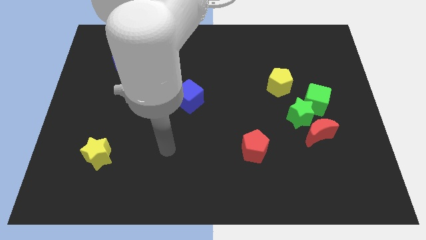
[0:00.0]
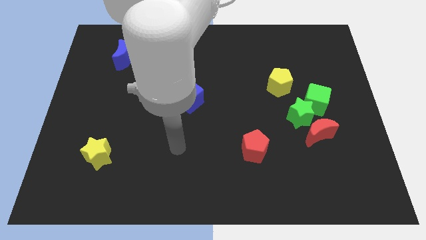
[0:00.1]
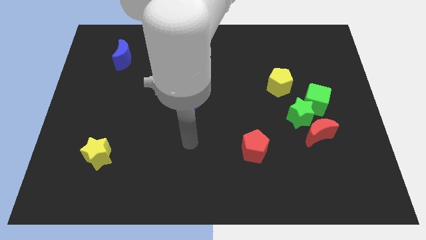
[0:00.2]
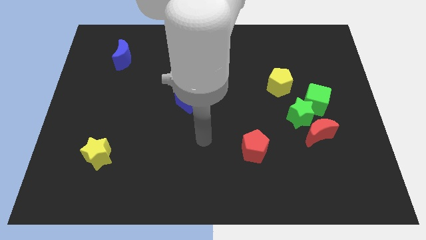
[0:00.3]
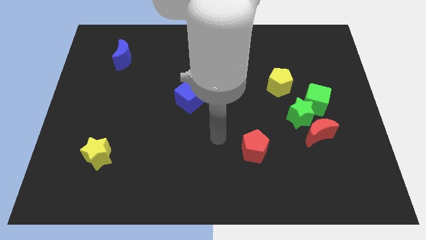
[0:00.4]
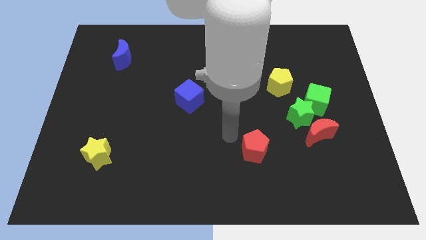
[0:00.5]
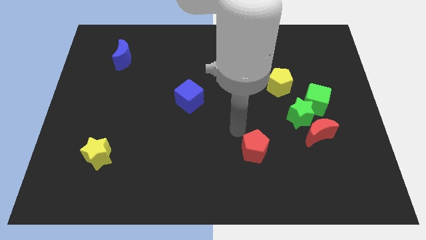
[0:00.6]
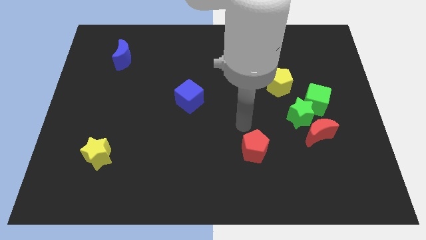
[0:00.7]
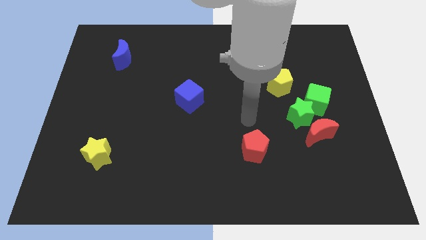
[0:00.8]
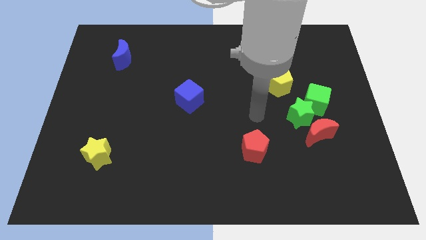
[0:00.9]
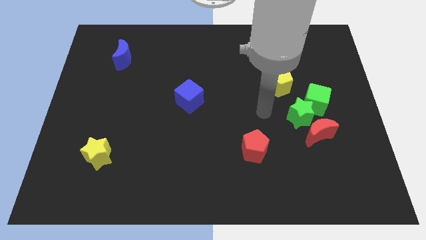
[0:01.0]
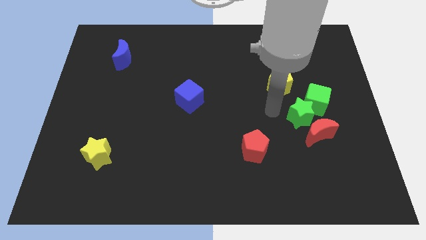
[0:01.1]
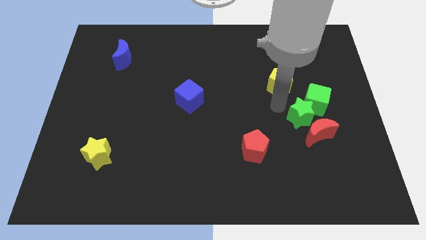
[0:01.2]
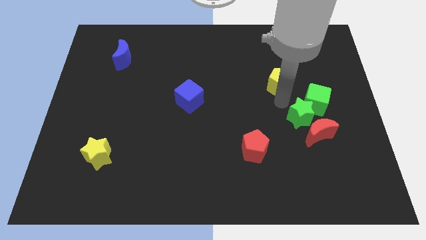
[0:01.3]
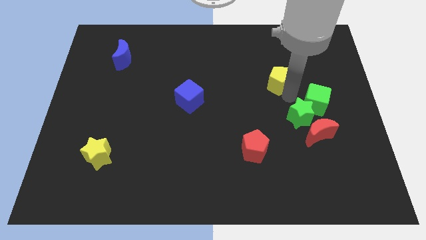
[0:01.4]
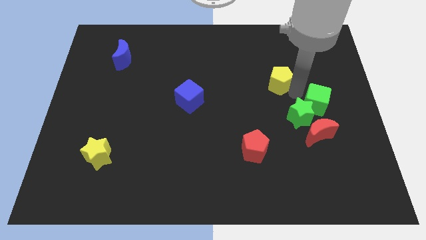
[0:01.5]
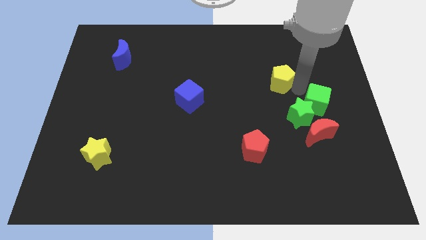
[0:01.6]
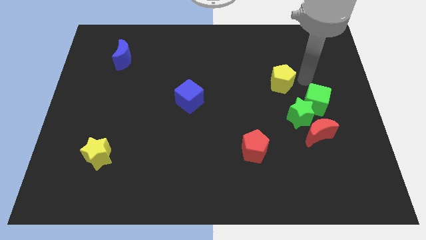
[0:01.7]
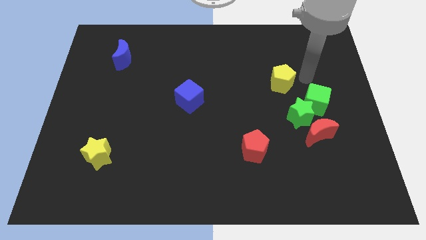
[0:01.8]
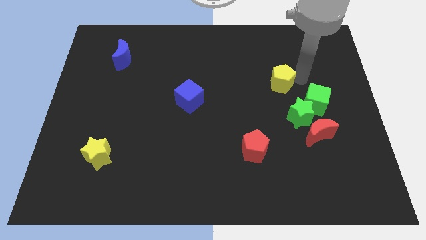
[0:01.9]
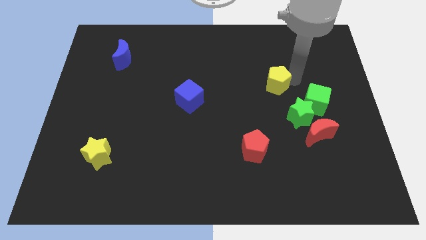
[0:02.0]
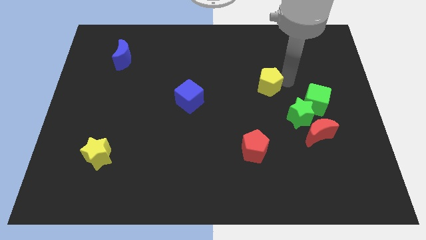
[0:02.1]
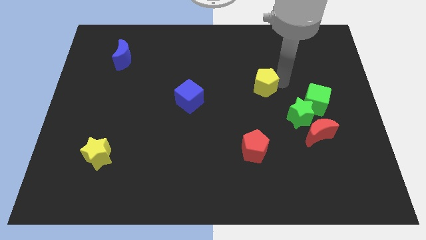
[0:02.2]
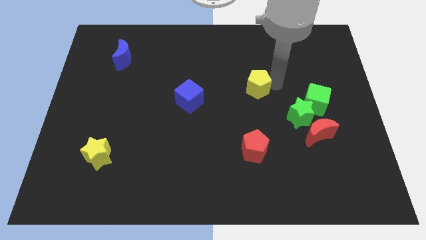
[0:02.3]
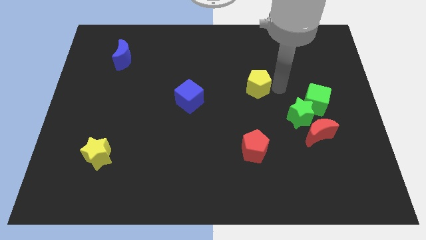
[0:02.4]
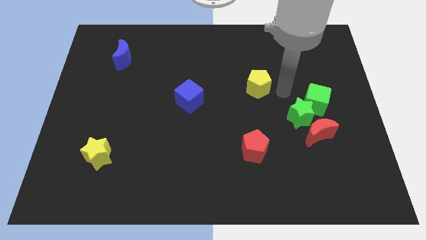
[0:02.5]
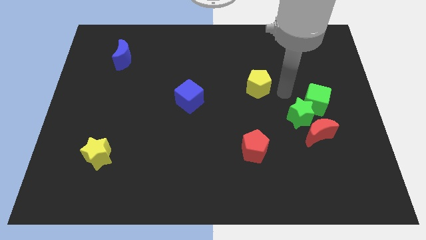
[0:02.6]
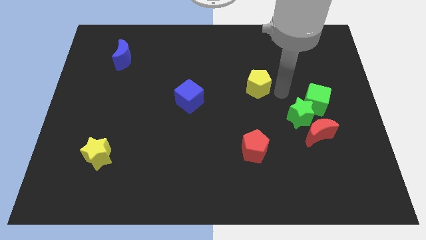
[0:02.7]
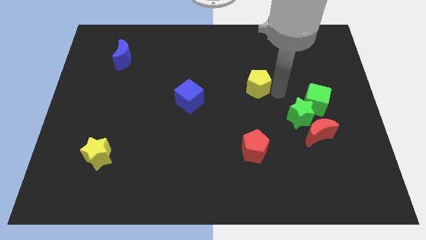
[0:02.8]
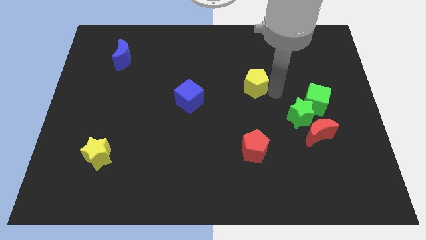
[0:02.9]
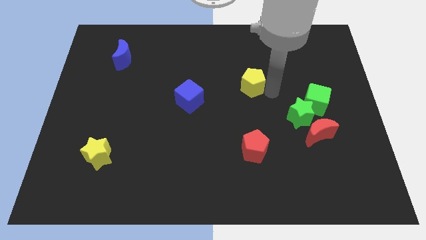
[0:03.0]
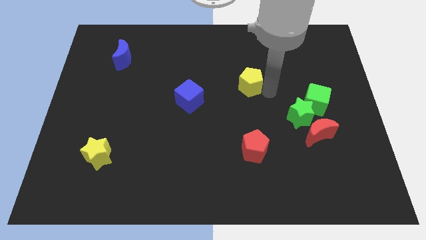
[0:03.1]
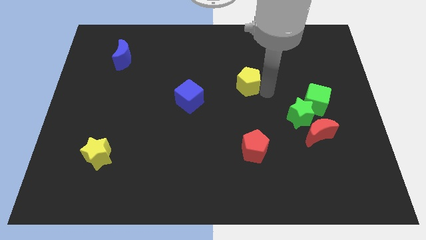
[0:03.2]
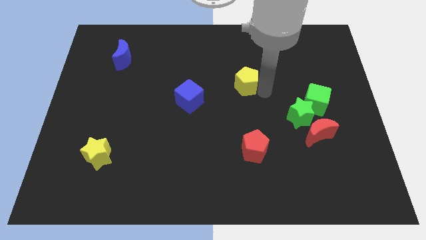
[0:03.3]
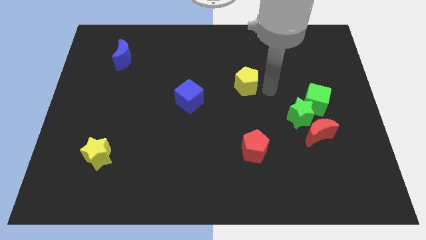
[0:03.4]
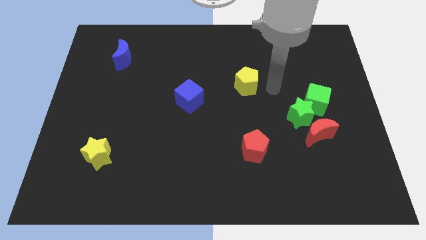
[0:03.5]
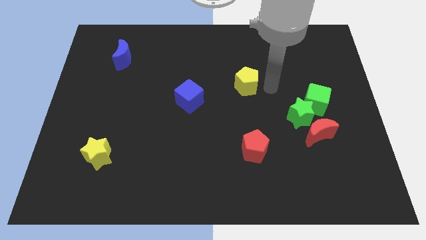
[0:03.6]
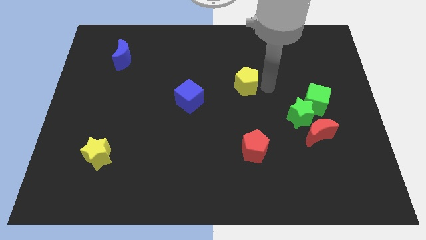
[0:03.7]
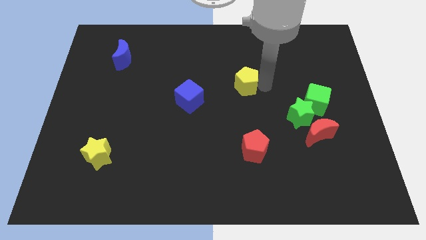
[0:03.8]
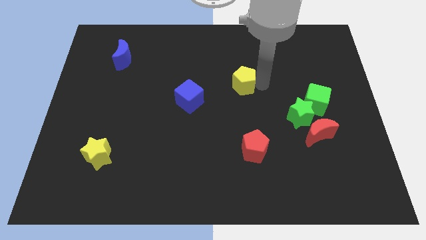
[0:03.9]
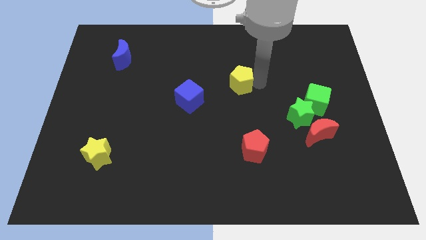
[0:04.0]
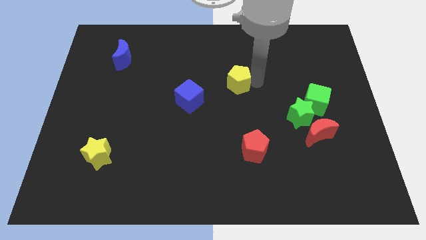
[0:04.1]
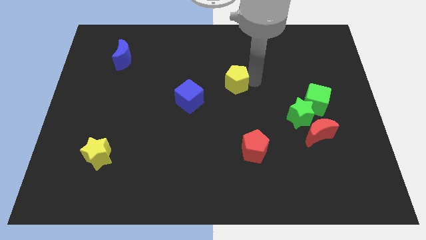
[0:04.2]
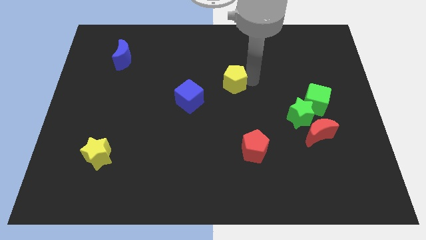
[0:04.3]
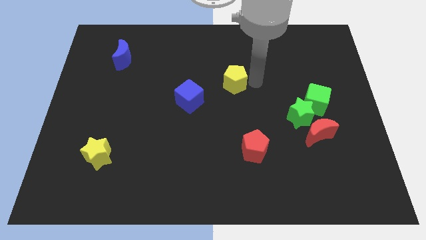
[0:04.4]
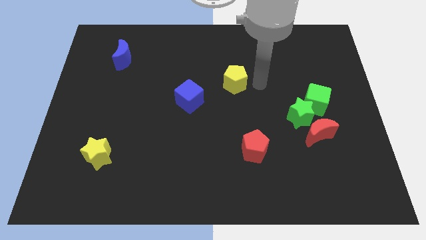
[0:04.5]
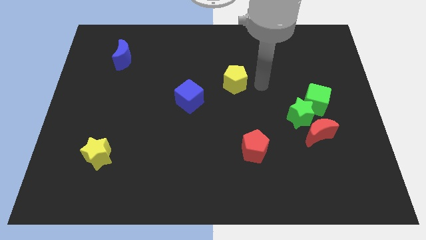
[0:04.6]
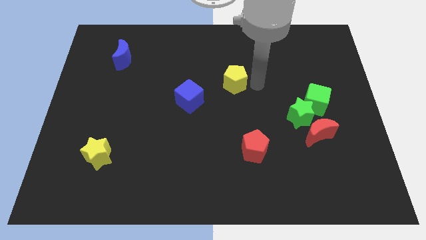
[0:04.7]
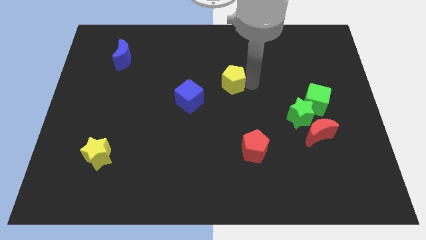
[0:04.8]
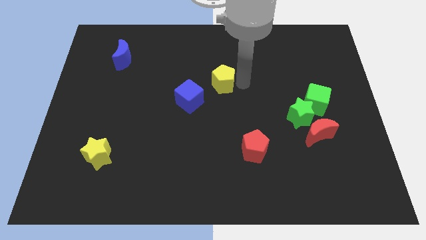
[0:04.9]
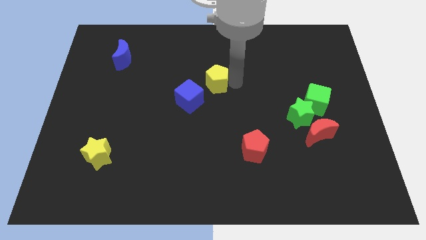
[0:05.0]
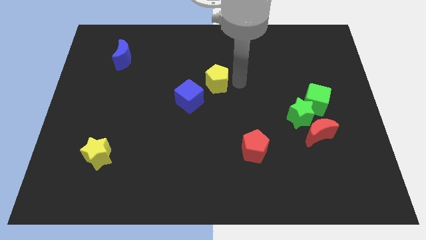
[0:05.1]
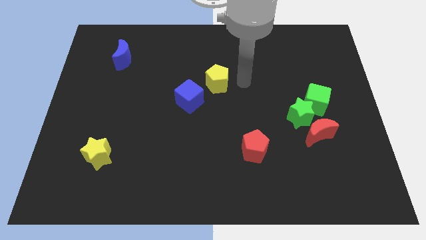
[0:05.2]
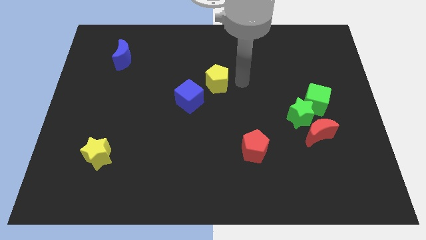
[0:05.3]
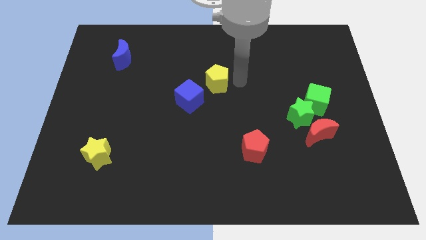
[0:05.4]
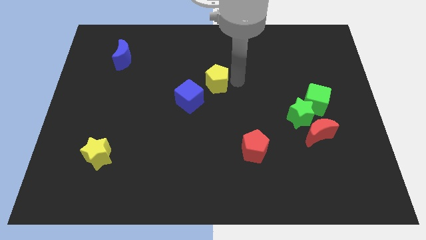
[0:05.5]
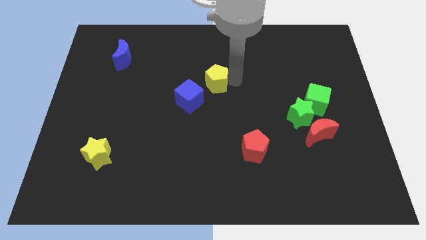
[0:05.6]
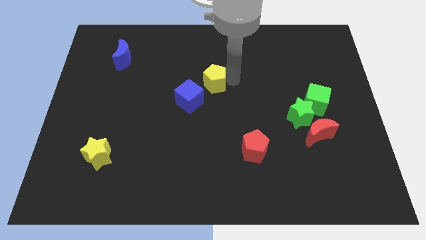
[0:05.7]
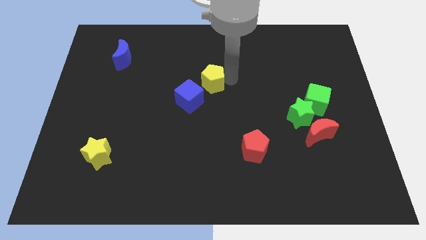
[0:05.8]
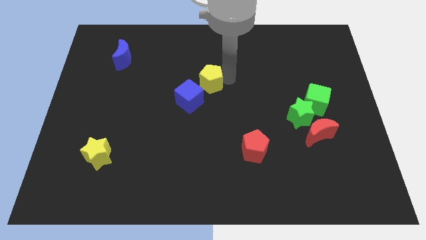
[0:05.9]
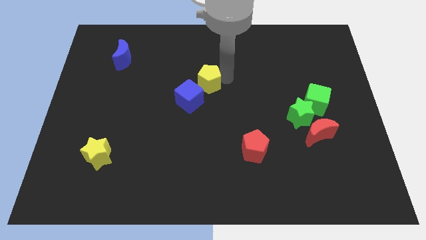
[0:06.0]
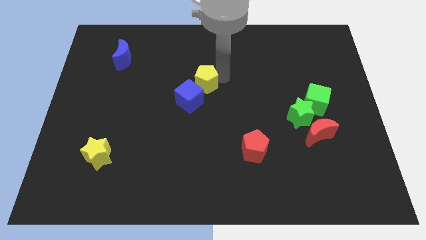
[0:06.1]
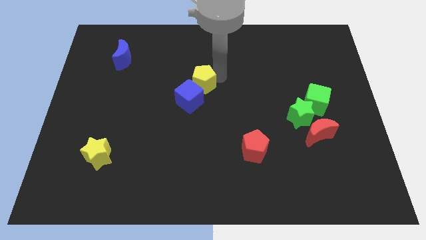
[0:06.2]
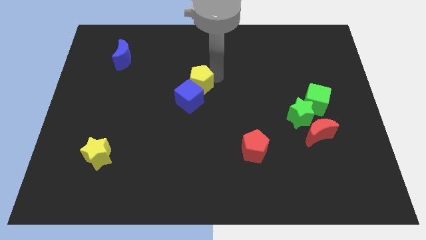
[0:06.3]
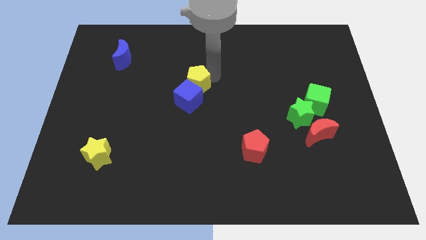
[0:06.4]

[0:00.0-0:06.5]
move the yellow pentagon left

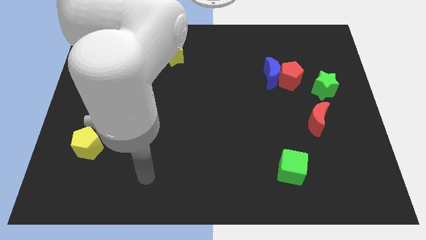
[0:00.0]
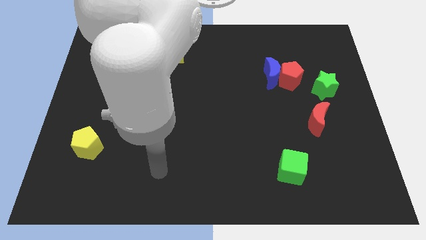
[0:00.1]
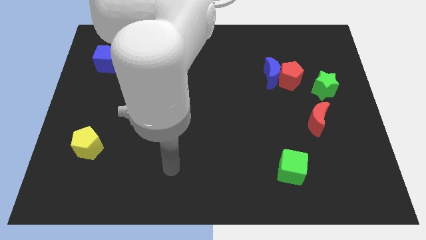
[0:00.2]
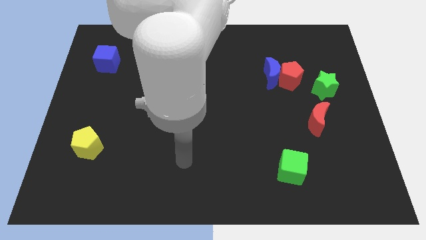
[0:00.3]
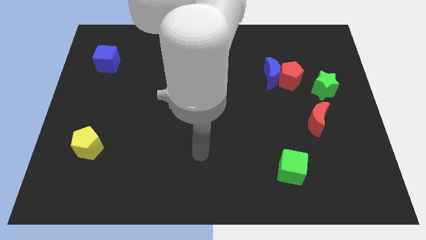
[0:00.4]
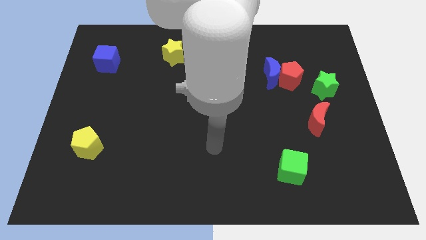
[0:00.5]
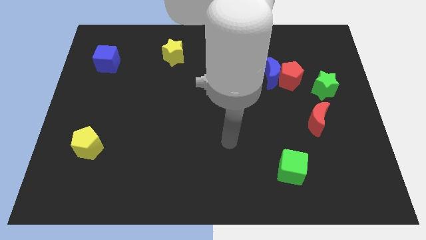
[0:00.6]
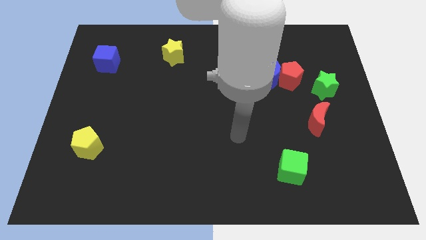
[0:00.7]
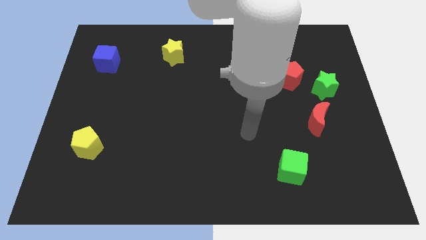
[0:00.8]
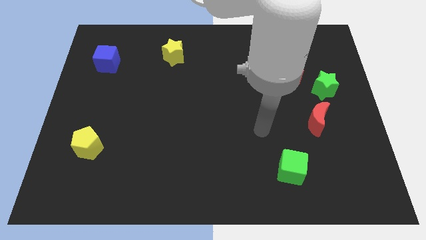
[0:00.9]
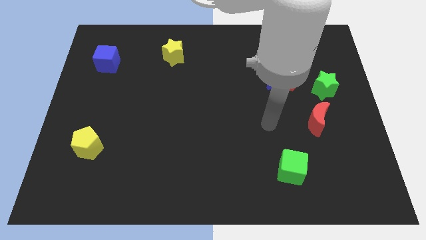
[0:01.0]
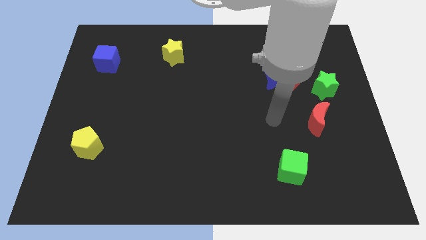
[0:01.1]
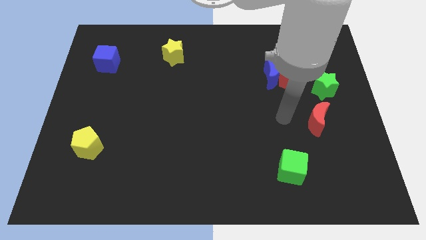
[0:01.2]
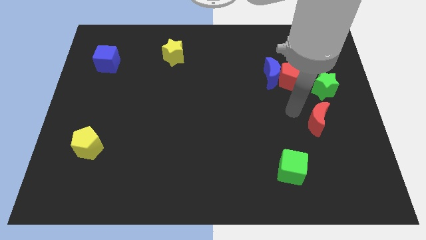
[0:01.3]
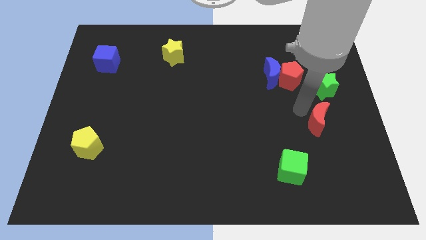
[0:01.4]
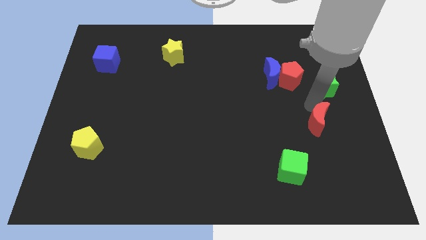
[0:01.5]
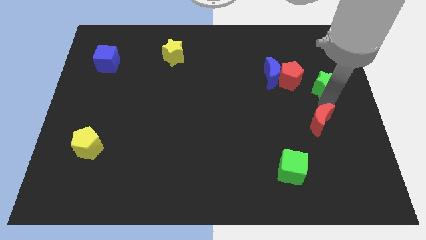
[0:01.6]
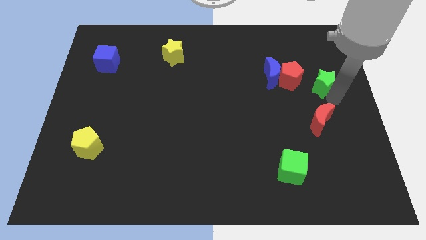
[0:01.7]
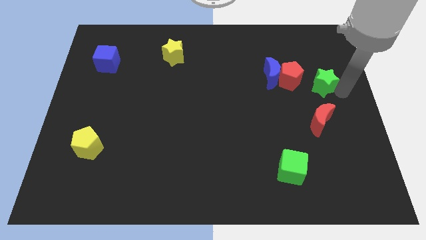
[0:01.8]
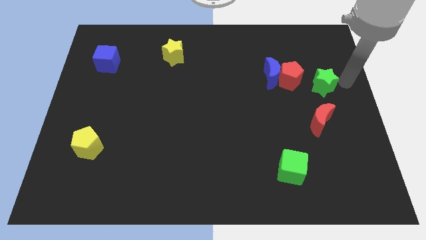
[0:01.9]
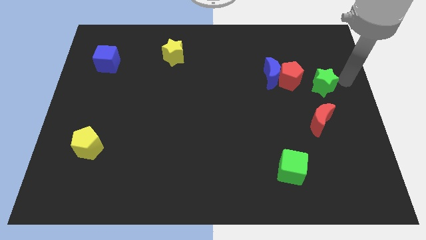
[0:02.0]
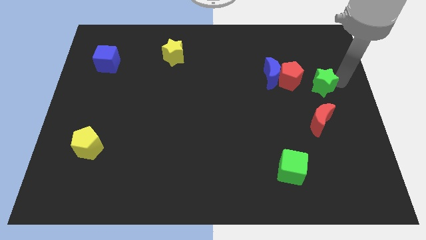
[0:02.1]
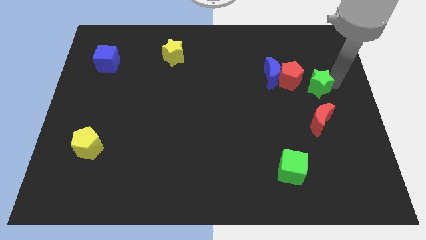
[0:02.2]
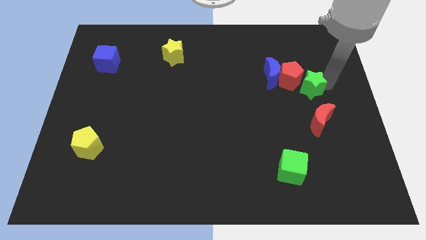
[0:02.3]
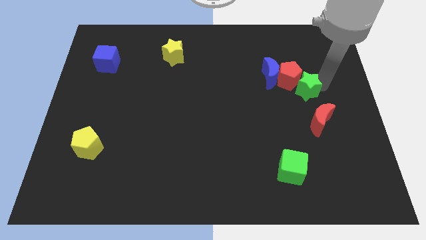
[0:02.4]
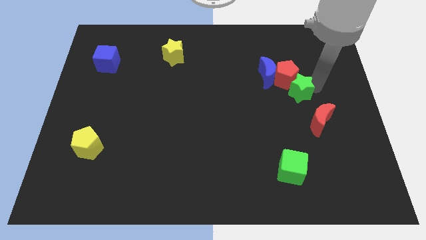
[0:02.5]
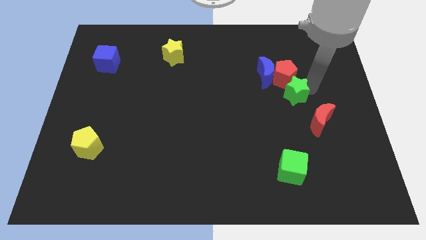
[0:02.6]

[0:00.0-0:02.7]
move the green star slightly left
